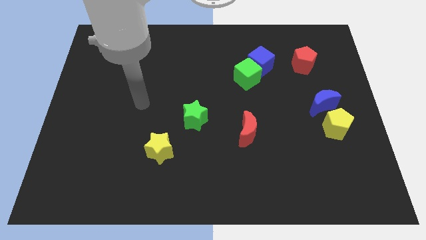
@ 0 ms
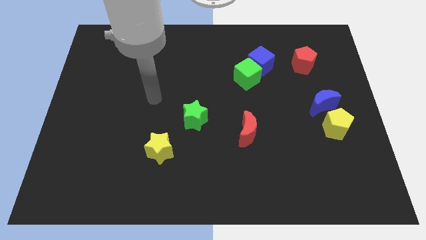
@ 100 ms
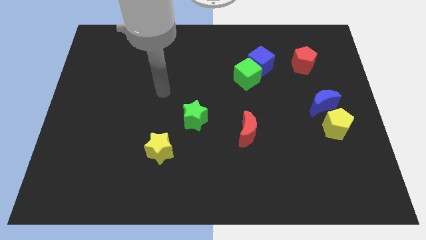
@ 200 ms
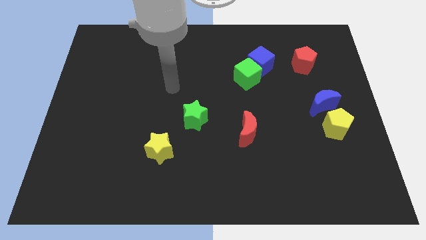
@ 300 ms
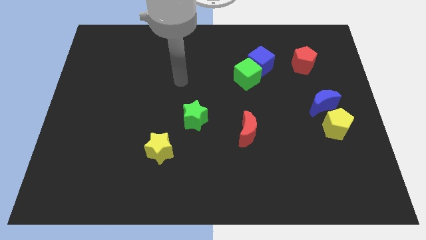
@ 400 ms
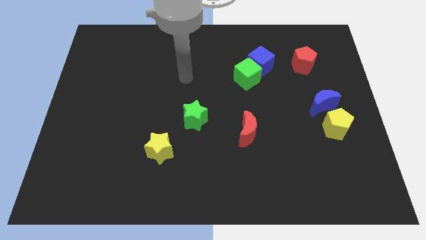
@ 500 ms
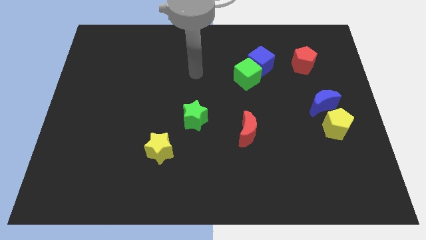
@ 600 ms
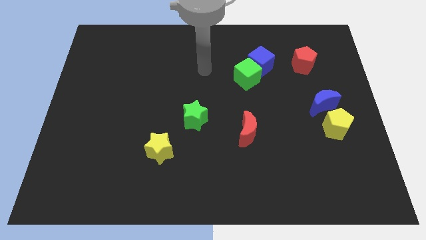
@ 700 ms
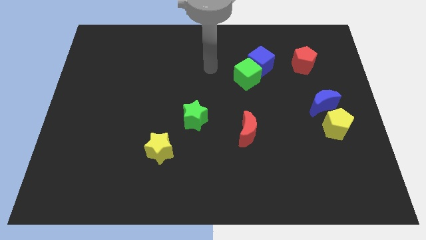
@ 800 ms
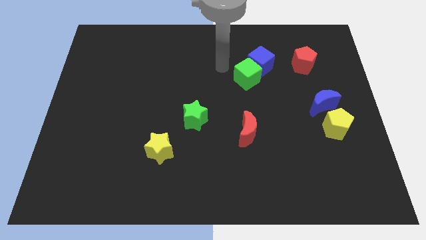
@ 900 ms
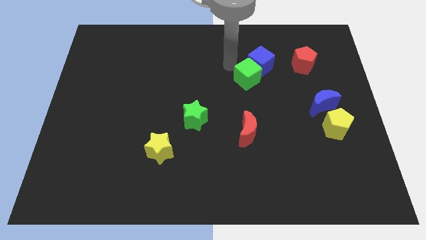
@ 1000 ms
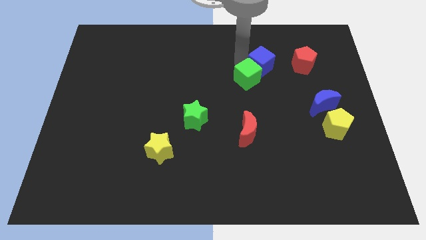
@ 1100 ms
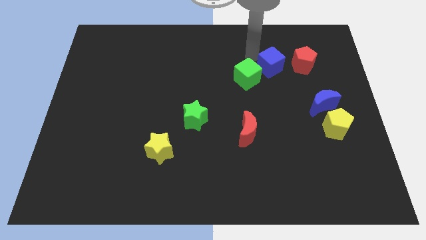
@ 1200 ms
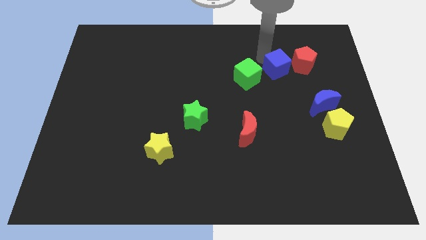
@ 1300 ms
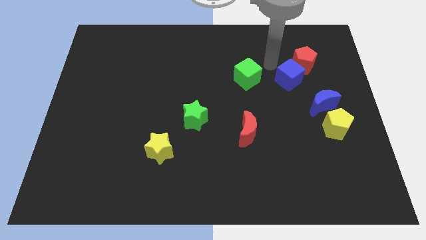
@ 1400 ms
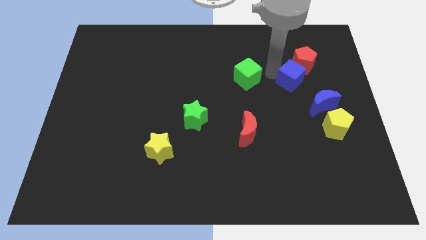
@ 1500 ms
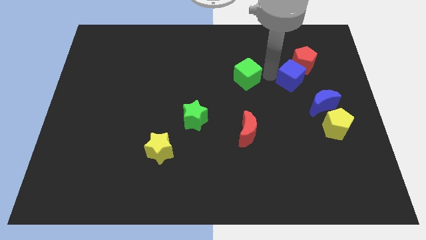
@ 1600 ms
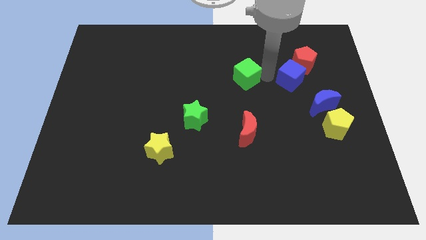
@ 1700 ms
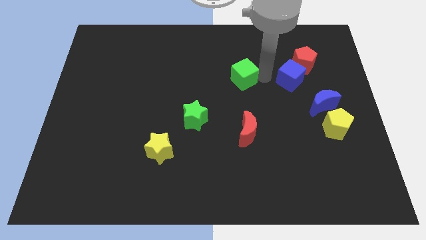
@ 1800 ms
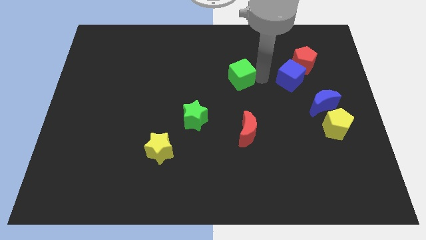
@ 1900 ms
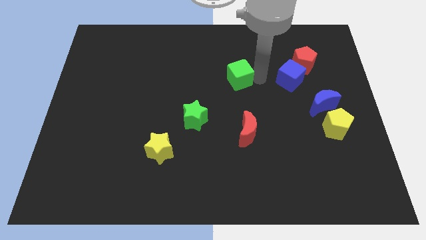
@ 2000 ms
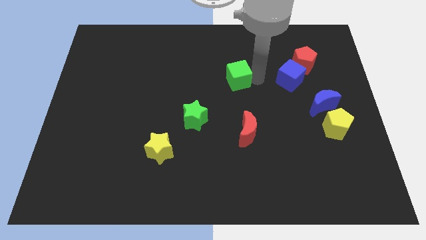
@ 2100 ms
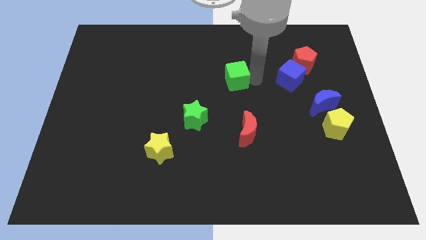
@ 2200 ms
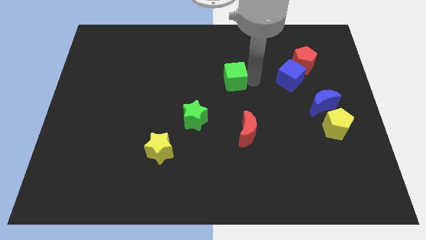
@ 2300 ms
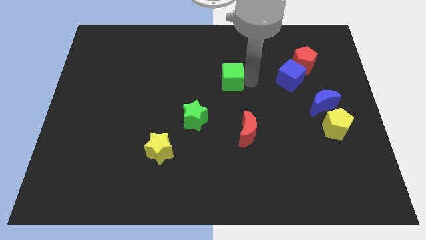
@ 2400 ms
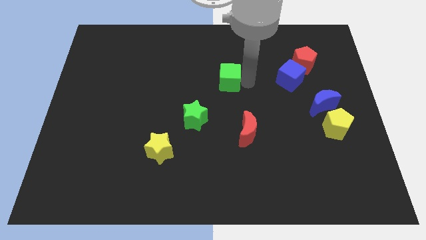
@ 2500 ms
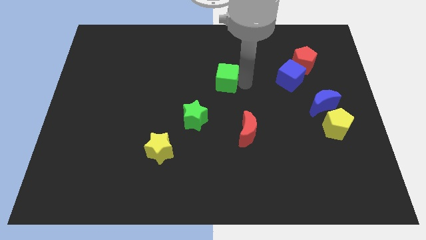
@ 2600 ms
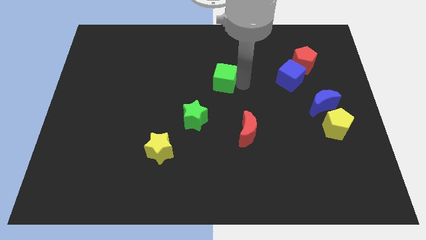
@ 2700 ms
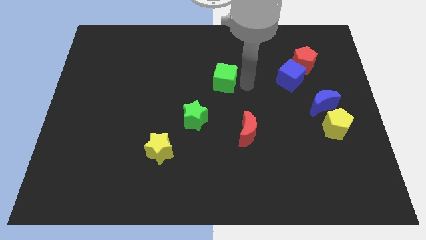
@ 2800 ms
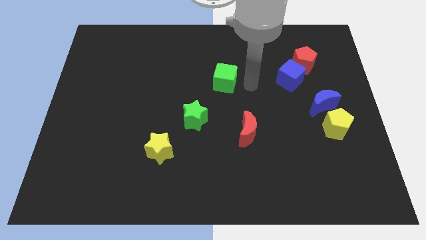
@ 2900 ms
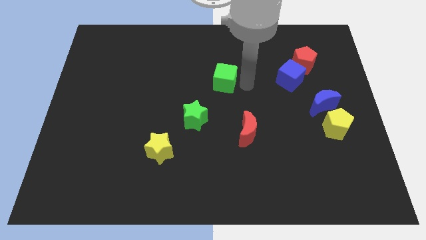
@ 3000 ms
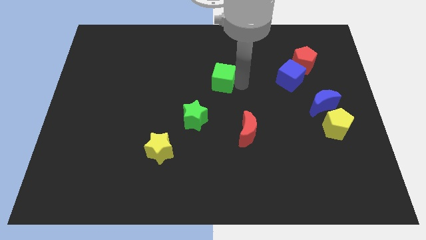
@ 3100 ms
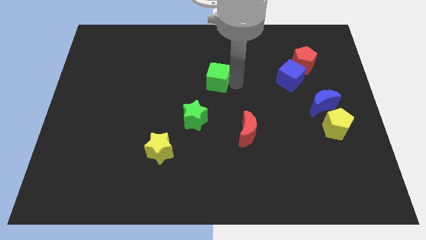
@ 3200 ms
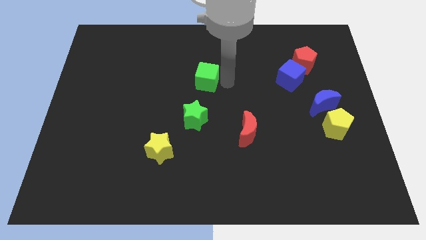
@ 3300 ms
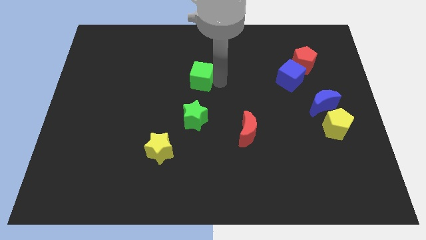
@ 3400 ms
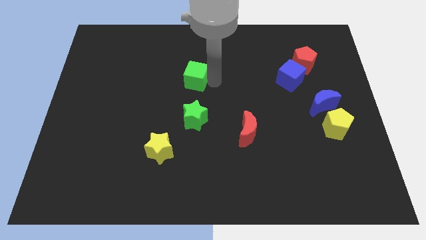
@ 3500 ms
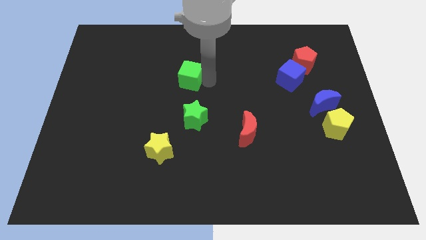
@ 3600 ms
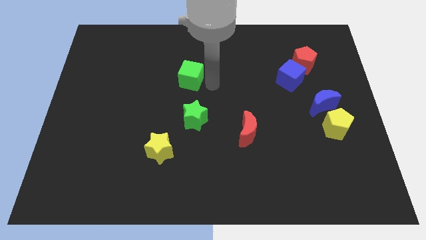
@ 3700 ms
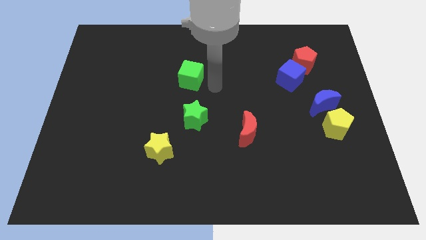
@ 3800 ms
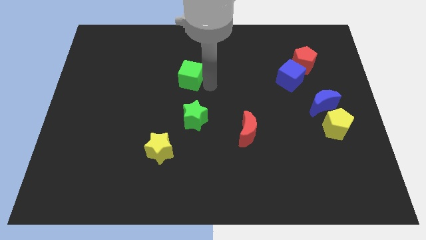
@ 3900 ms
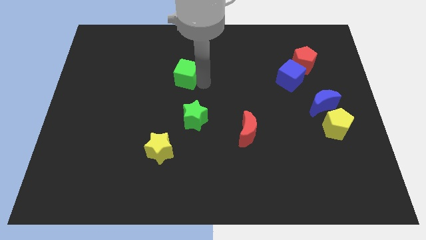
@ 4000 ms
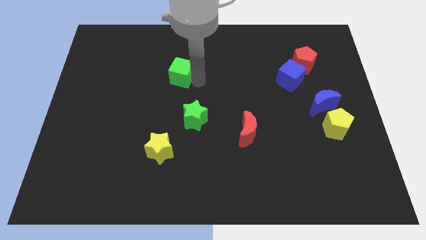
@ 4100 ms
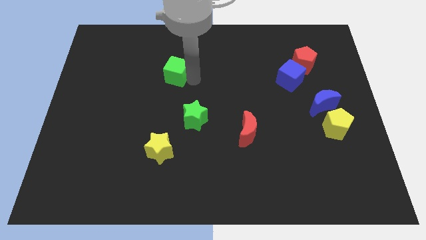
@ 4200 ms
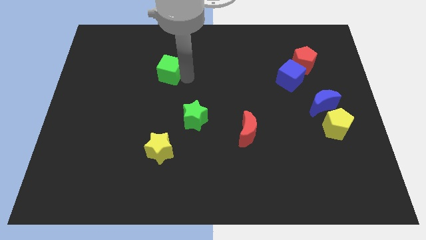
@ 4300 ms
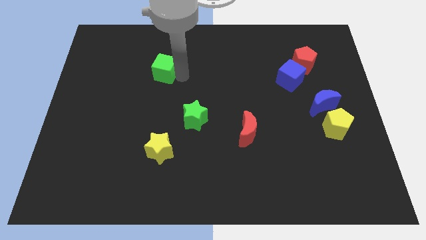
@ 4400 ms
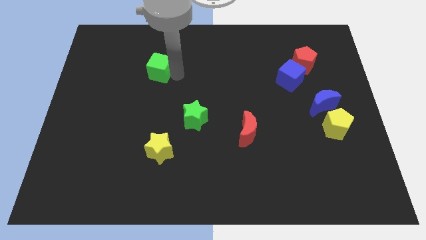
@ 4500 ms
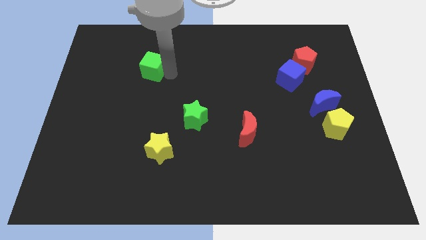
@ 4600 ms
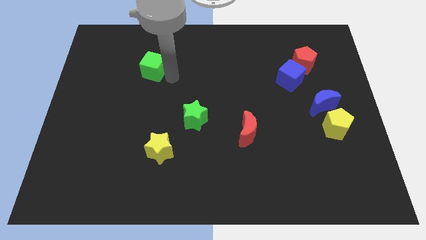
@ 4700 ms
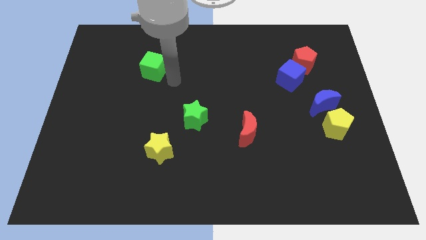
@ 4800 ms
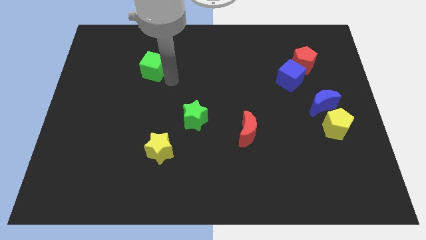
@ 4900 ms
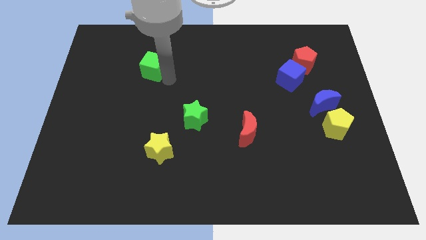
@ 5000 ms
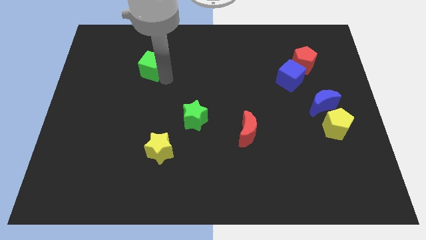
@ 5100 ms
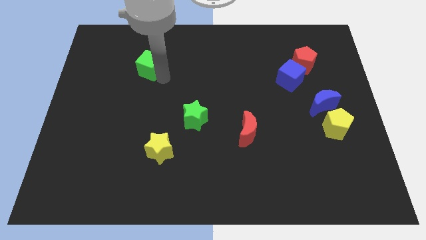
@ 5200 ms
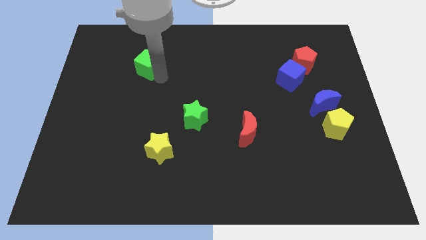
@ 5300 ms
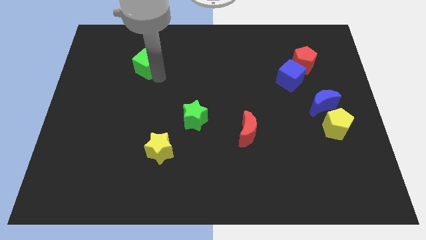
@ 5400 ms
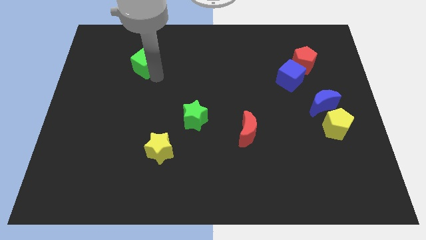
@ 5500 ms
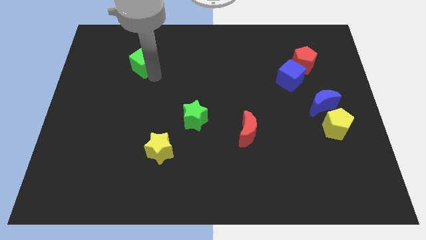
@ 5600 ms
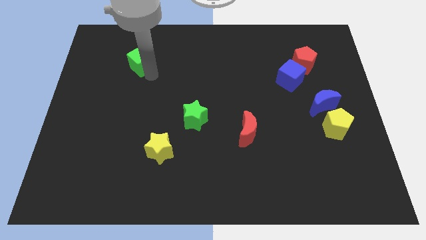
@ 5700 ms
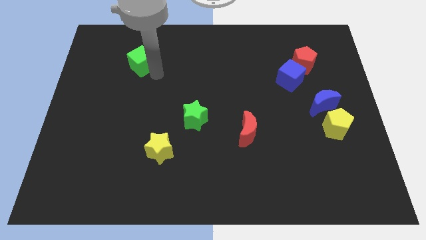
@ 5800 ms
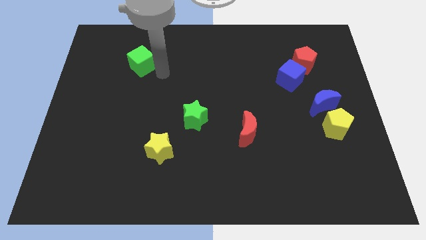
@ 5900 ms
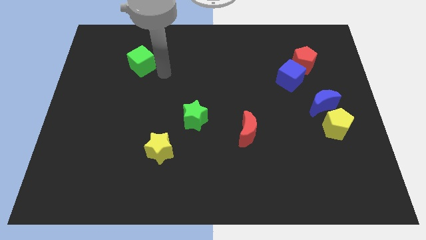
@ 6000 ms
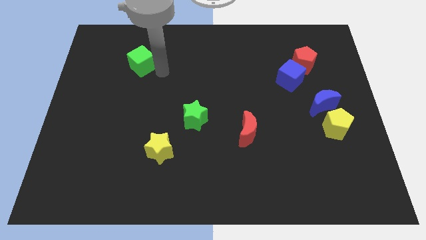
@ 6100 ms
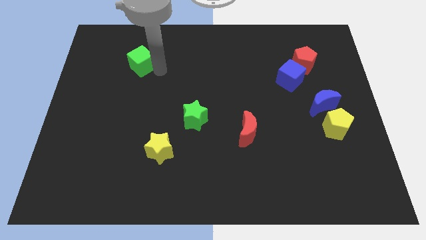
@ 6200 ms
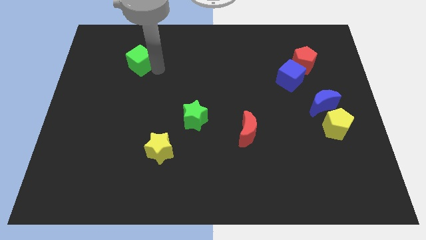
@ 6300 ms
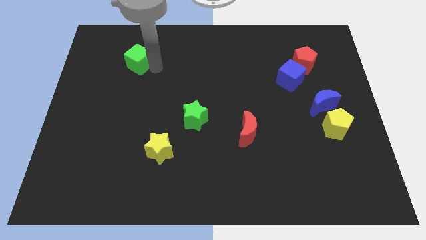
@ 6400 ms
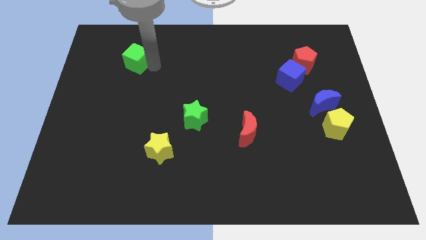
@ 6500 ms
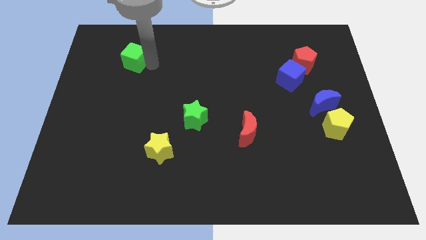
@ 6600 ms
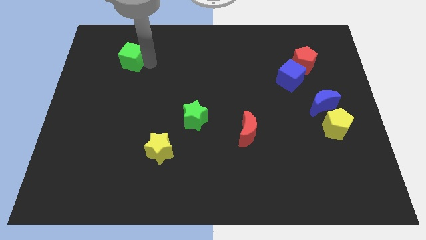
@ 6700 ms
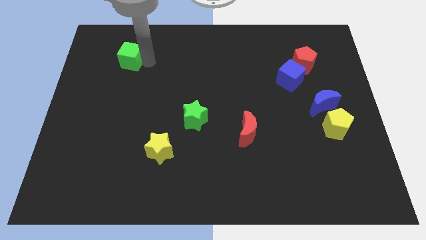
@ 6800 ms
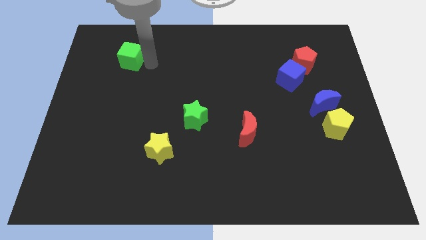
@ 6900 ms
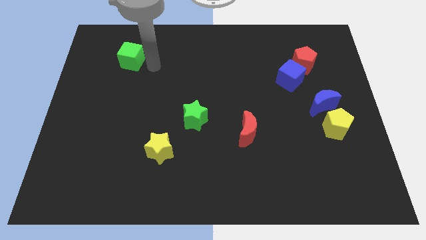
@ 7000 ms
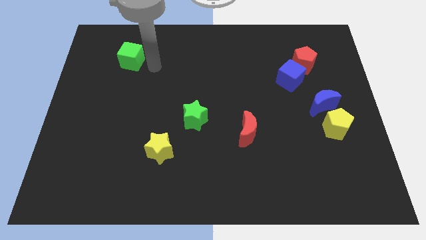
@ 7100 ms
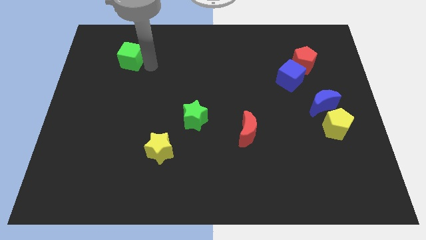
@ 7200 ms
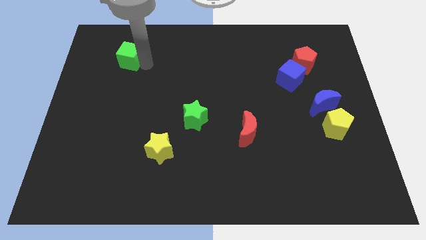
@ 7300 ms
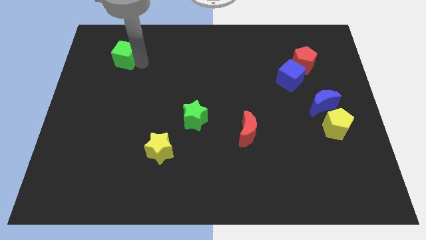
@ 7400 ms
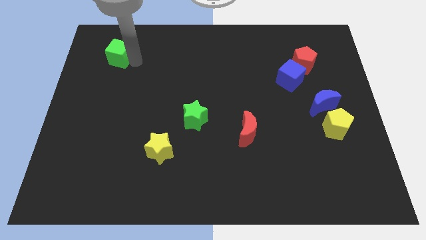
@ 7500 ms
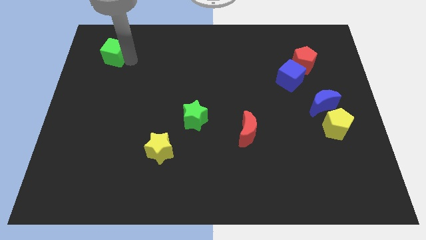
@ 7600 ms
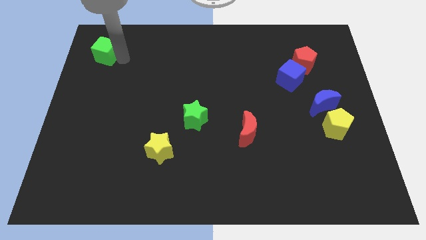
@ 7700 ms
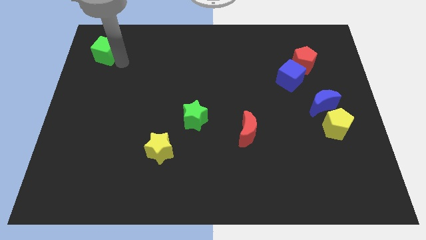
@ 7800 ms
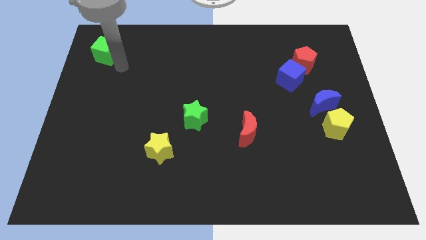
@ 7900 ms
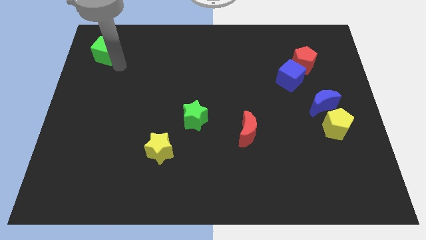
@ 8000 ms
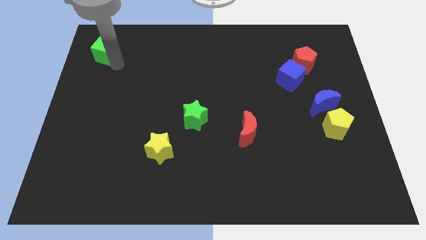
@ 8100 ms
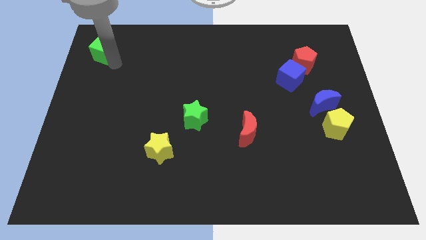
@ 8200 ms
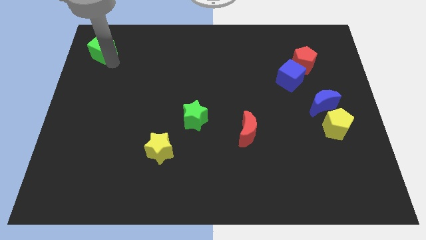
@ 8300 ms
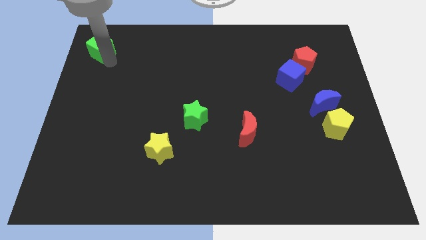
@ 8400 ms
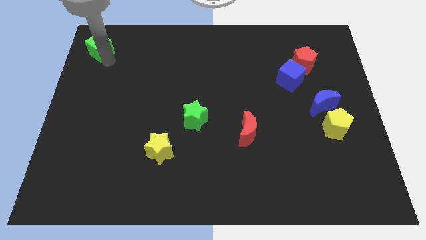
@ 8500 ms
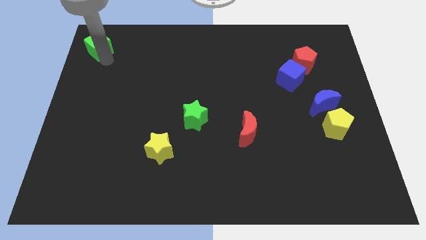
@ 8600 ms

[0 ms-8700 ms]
move the green cube to the top left corner
